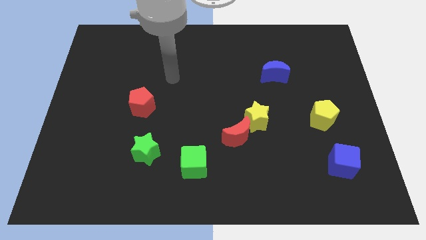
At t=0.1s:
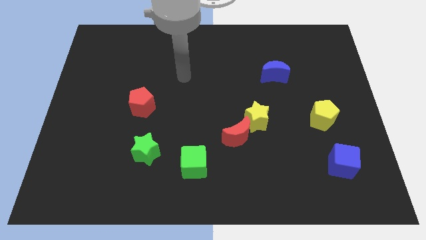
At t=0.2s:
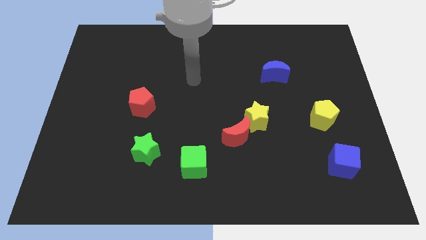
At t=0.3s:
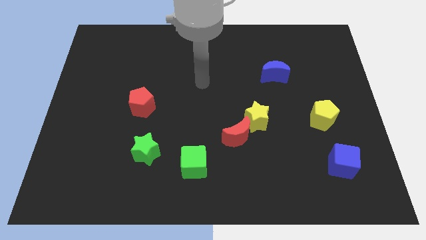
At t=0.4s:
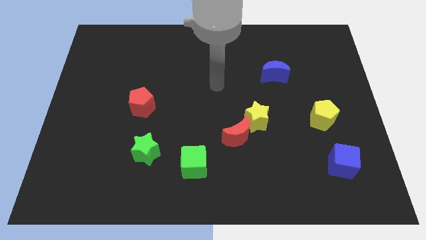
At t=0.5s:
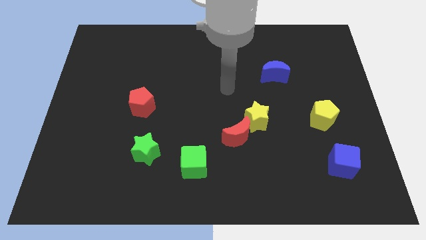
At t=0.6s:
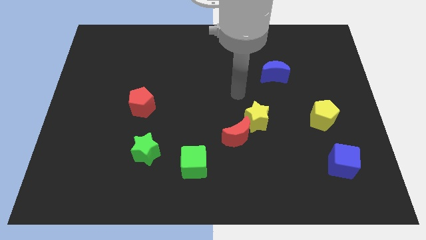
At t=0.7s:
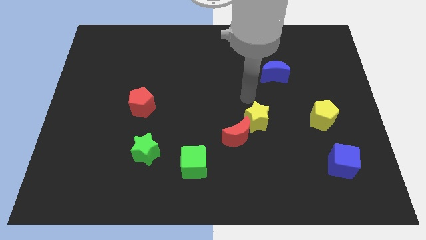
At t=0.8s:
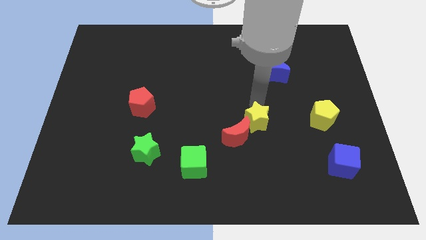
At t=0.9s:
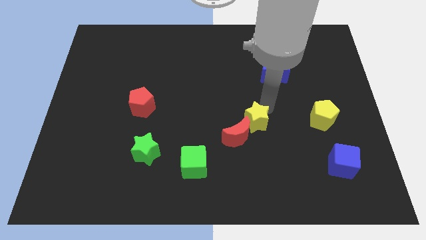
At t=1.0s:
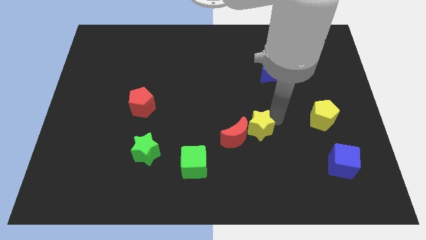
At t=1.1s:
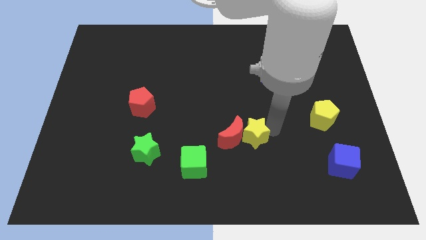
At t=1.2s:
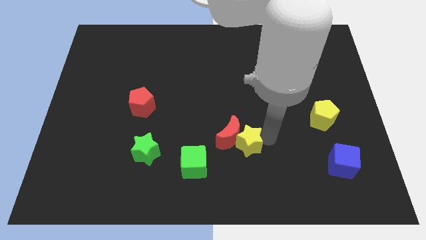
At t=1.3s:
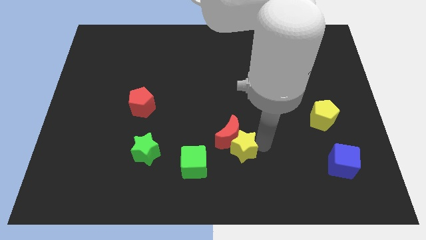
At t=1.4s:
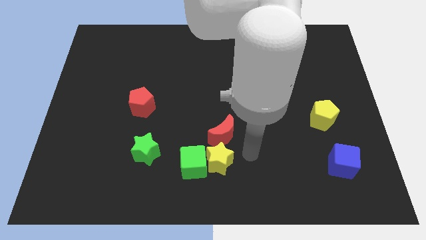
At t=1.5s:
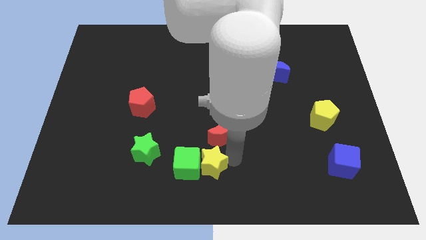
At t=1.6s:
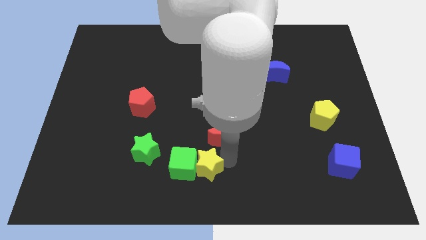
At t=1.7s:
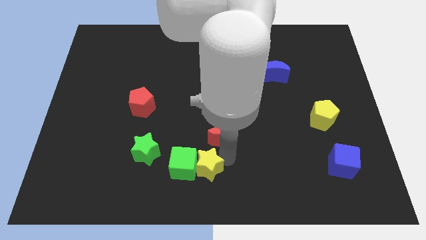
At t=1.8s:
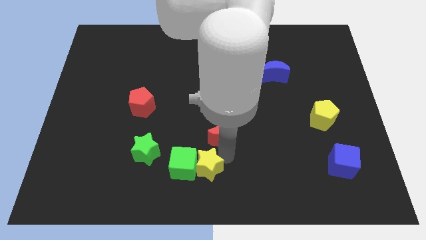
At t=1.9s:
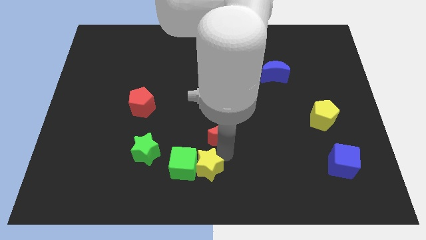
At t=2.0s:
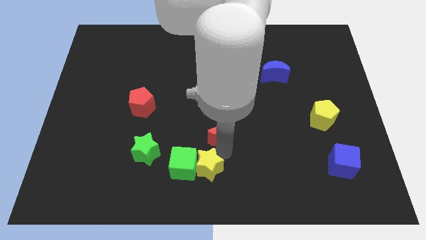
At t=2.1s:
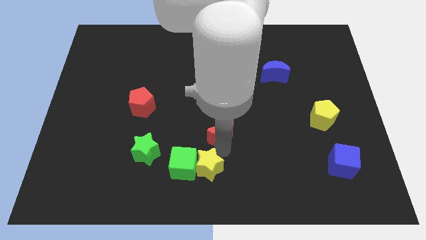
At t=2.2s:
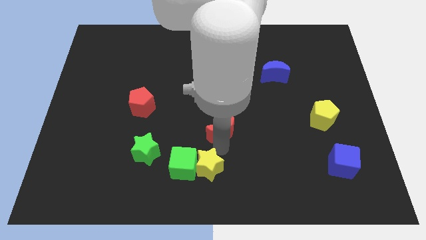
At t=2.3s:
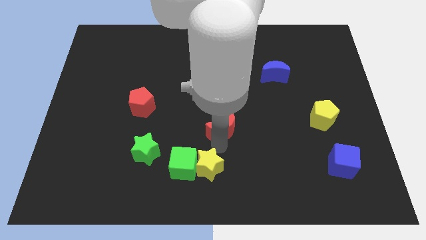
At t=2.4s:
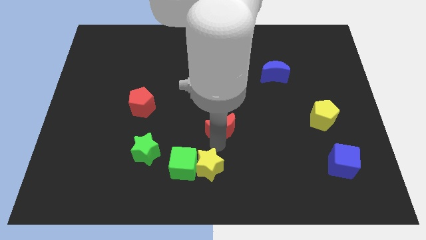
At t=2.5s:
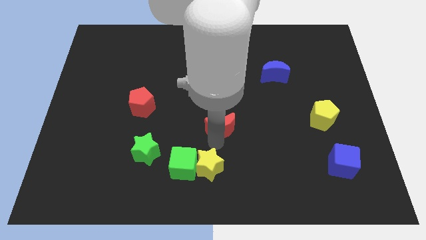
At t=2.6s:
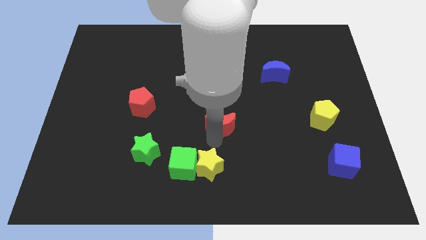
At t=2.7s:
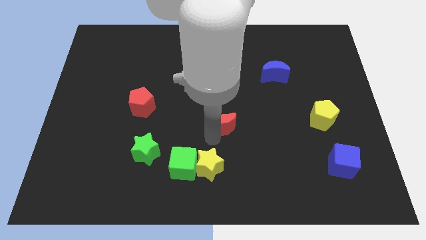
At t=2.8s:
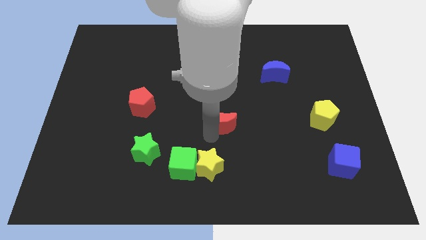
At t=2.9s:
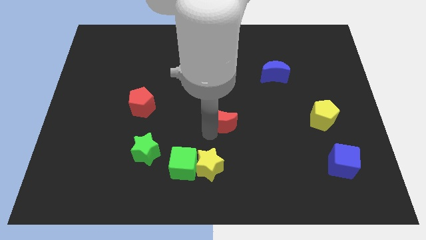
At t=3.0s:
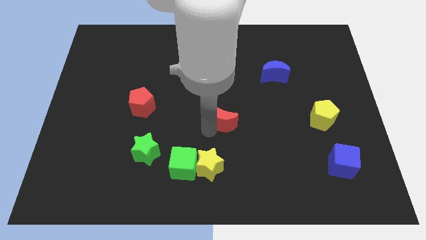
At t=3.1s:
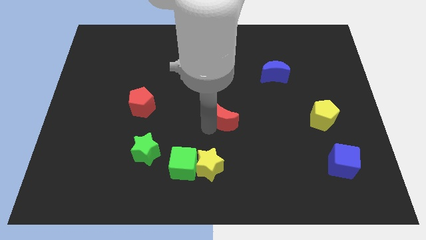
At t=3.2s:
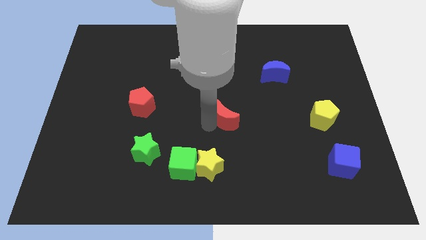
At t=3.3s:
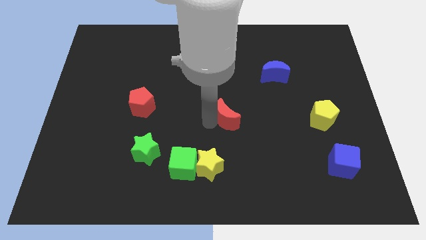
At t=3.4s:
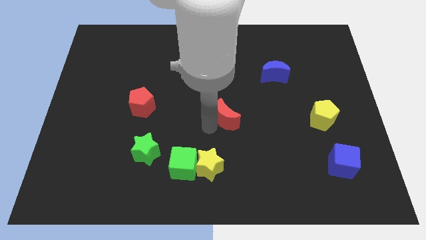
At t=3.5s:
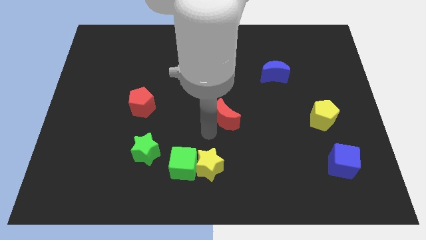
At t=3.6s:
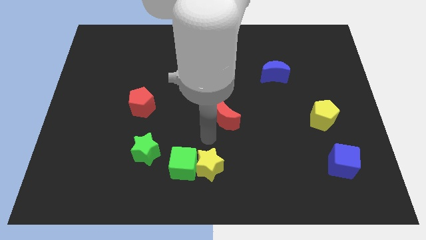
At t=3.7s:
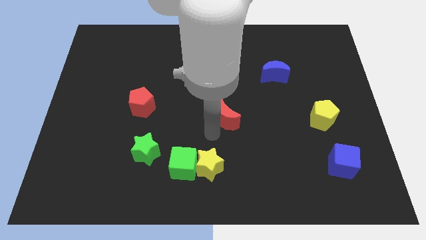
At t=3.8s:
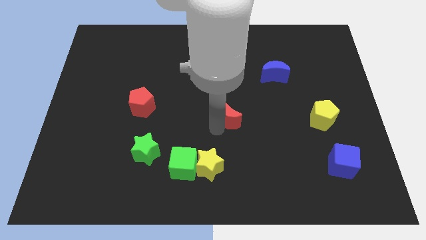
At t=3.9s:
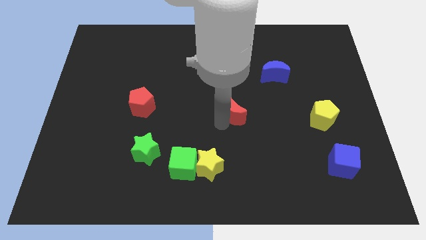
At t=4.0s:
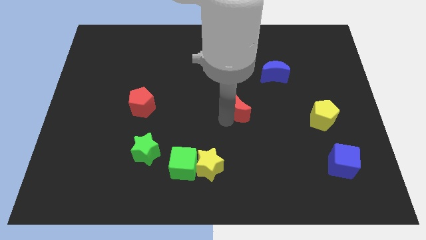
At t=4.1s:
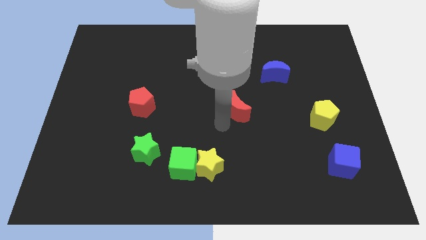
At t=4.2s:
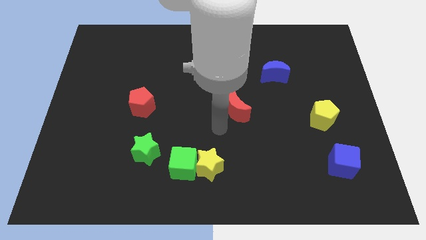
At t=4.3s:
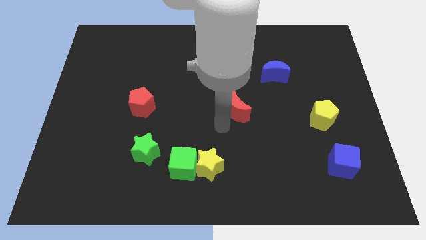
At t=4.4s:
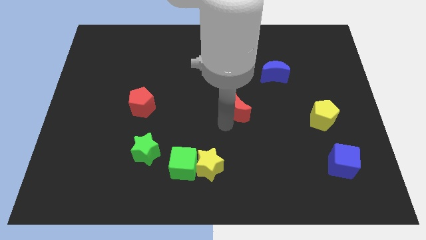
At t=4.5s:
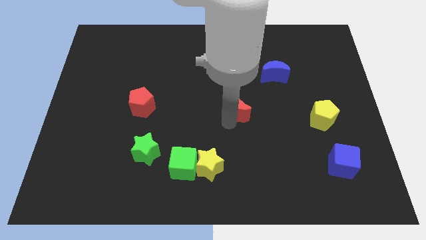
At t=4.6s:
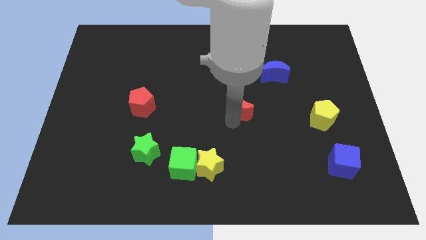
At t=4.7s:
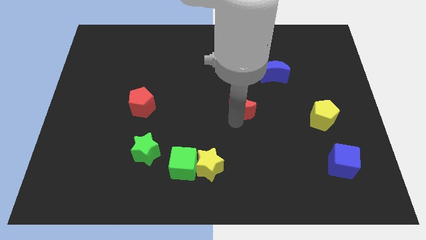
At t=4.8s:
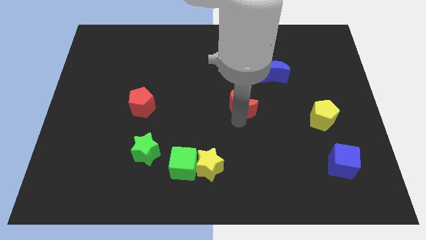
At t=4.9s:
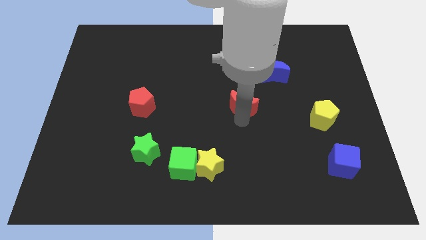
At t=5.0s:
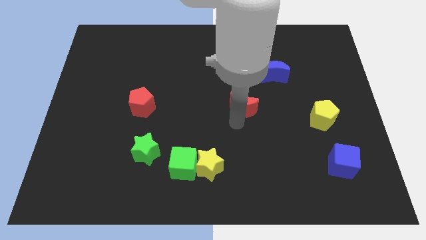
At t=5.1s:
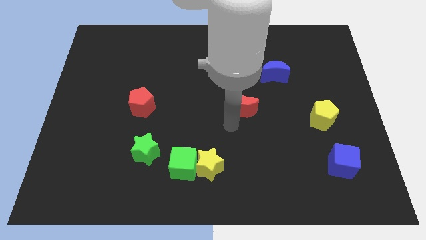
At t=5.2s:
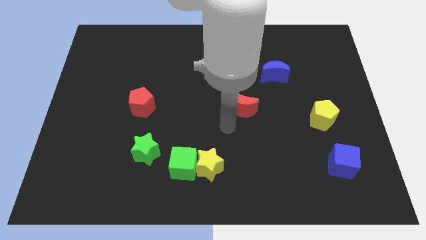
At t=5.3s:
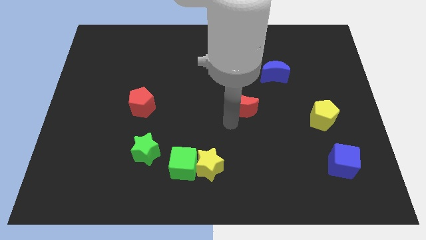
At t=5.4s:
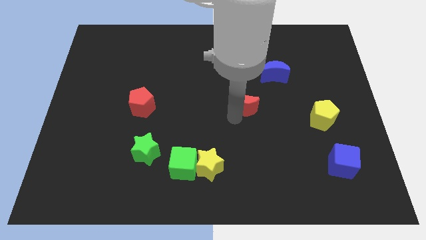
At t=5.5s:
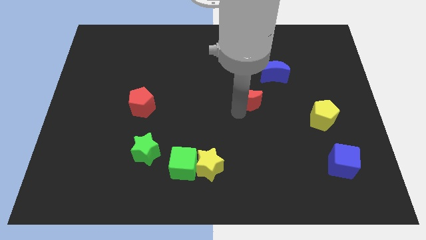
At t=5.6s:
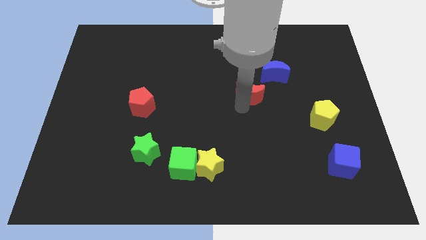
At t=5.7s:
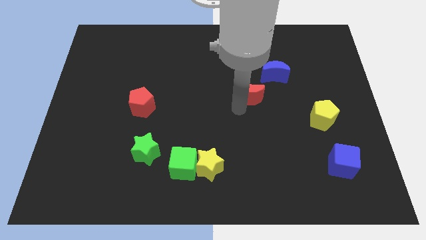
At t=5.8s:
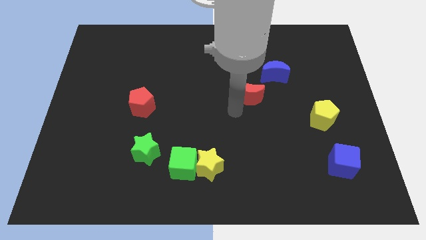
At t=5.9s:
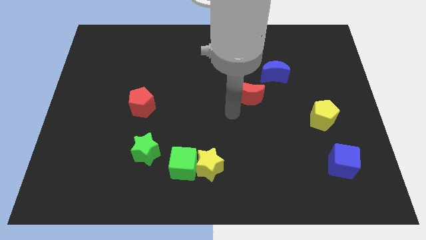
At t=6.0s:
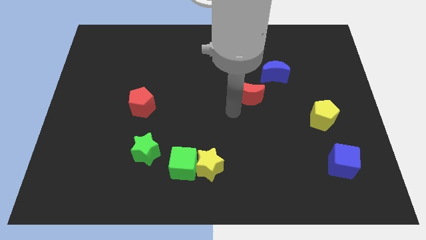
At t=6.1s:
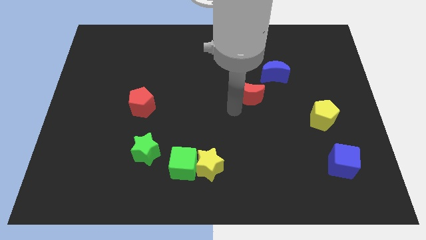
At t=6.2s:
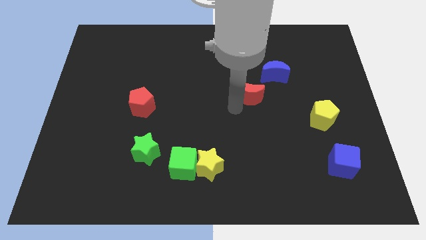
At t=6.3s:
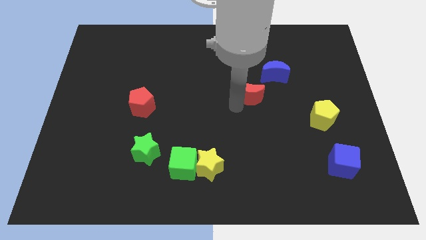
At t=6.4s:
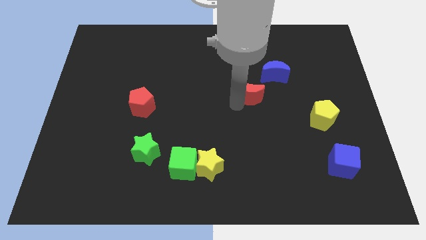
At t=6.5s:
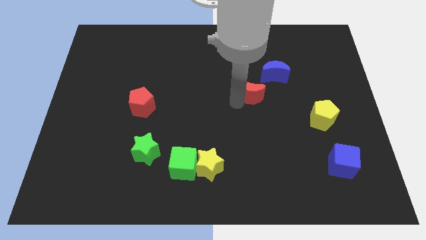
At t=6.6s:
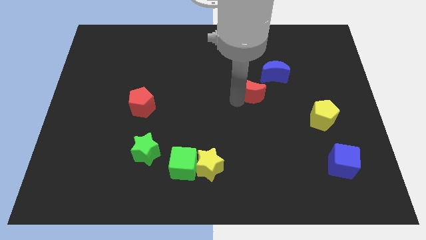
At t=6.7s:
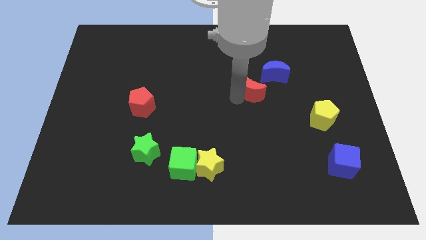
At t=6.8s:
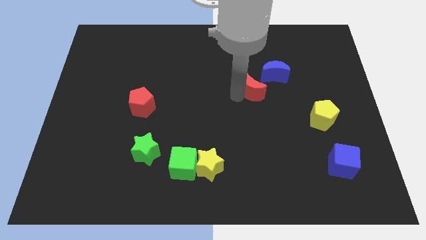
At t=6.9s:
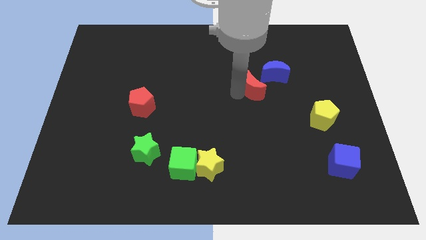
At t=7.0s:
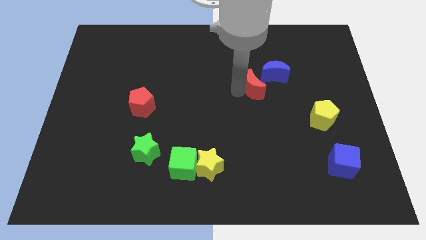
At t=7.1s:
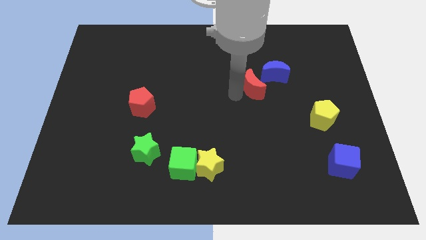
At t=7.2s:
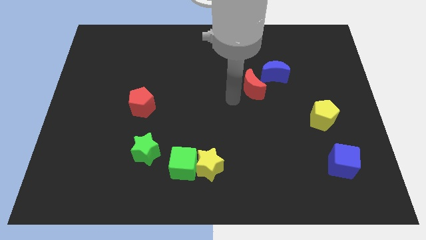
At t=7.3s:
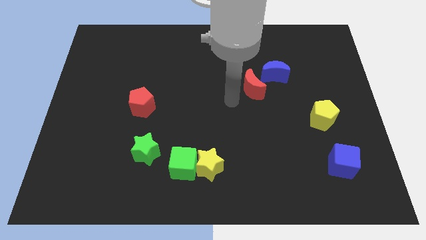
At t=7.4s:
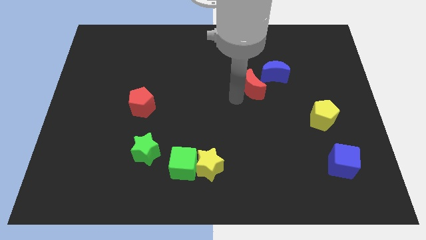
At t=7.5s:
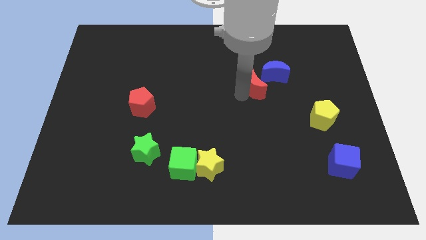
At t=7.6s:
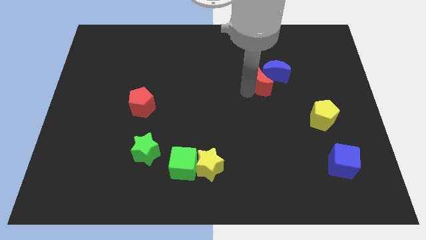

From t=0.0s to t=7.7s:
push the red moon to the blue moon

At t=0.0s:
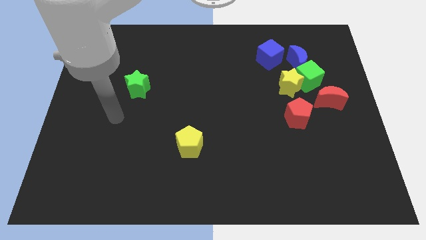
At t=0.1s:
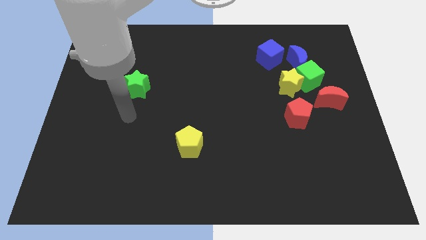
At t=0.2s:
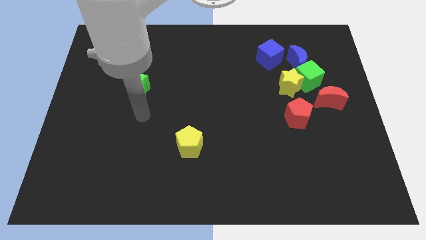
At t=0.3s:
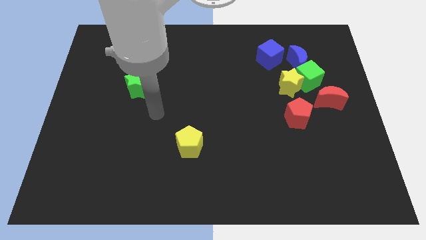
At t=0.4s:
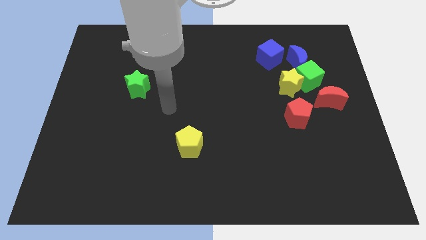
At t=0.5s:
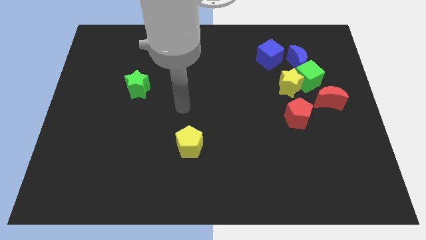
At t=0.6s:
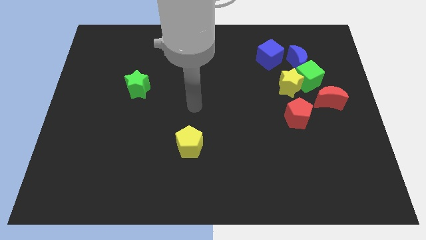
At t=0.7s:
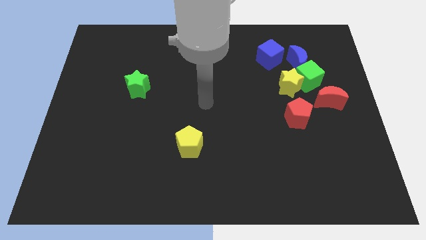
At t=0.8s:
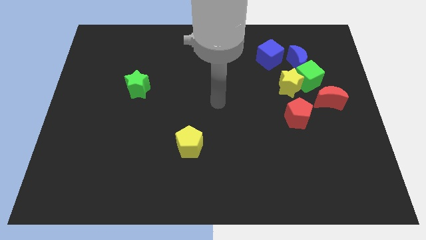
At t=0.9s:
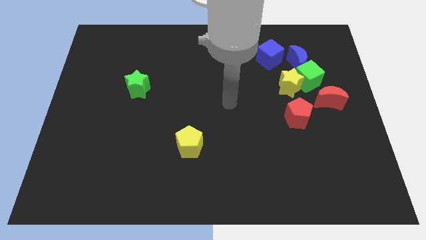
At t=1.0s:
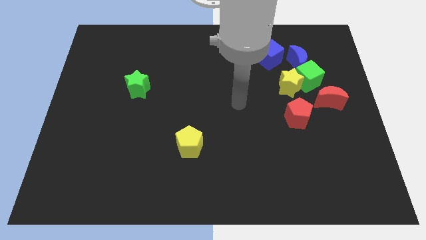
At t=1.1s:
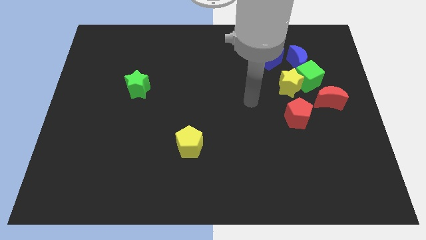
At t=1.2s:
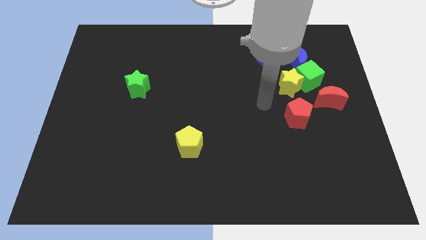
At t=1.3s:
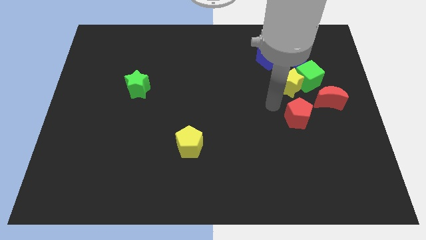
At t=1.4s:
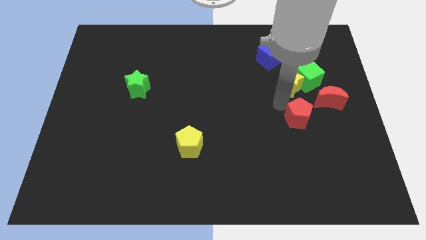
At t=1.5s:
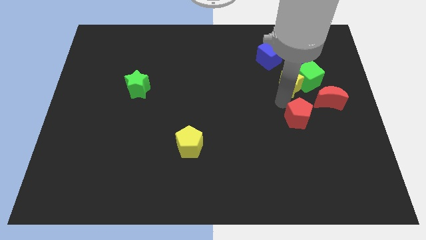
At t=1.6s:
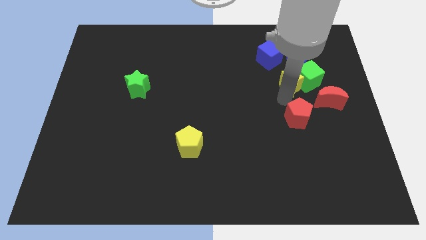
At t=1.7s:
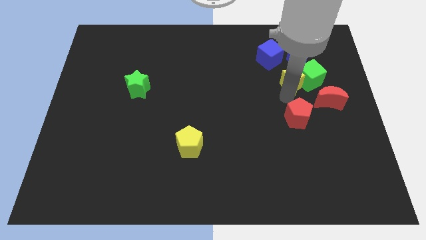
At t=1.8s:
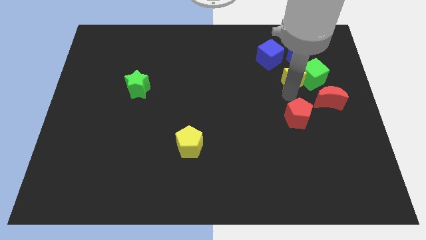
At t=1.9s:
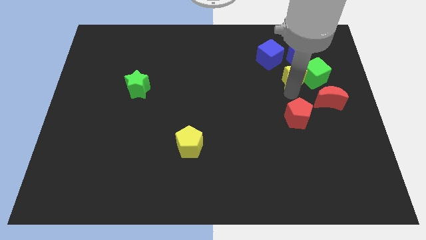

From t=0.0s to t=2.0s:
put the yellow star to the blue moon
